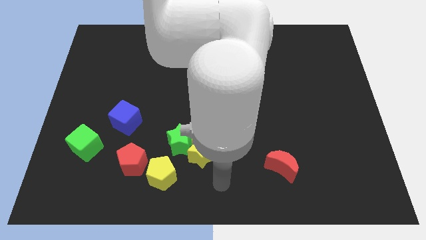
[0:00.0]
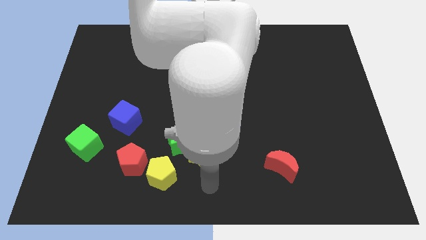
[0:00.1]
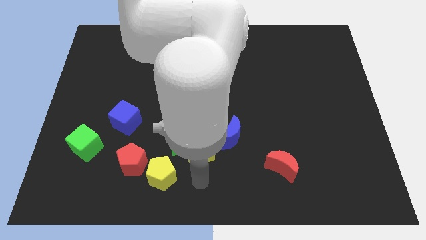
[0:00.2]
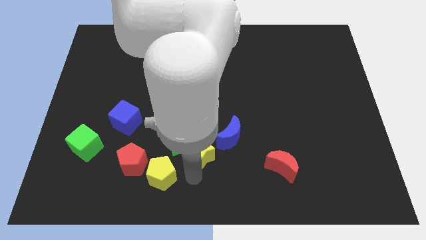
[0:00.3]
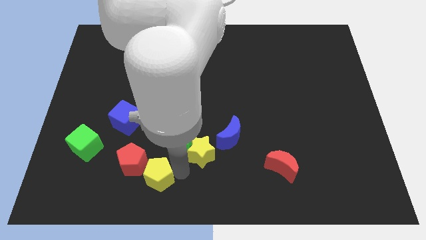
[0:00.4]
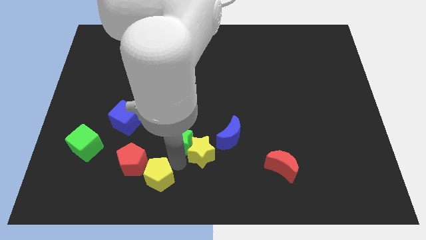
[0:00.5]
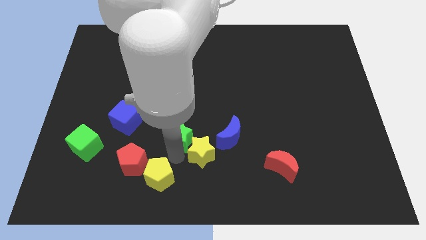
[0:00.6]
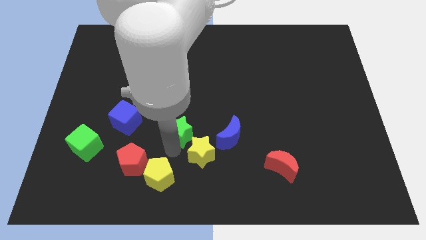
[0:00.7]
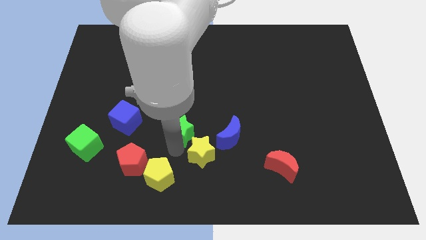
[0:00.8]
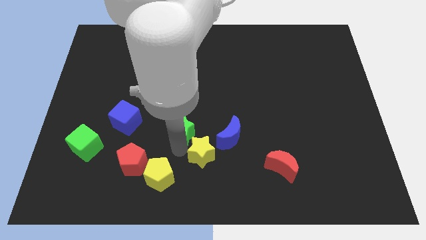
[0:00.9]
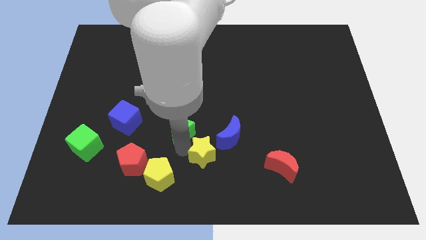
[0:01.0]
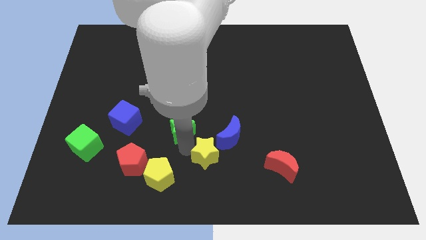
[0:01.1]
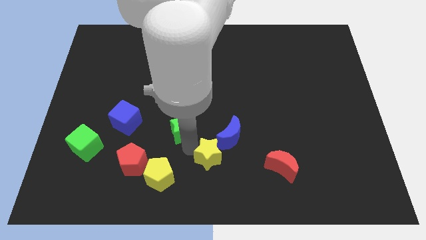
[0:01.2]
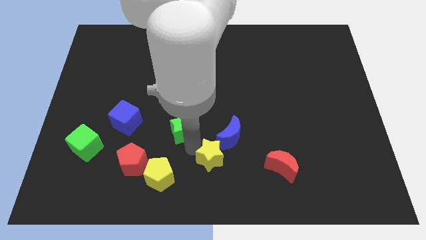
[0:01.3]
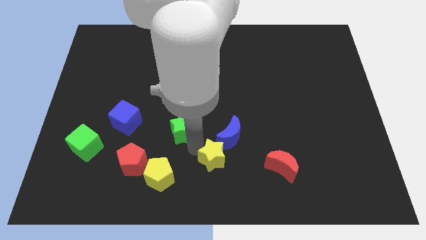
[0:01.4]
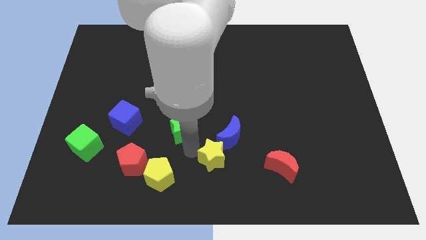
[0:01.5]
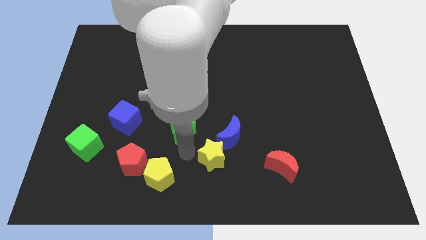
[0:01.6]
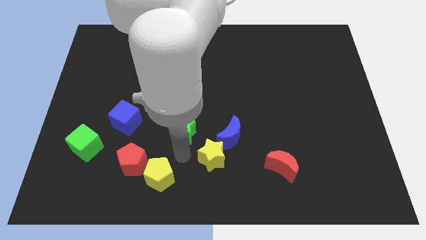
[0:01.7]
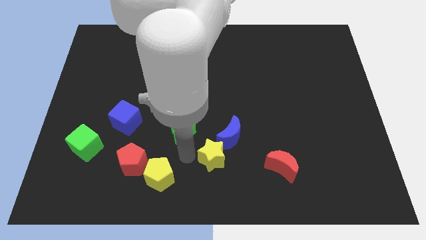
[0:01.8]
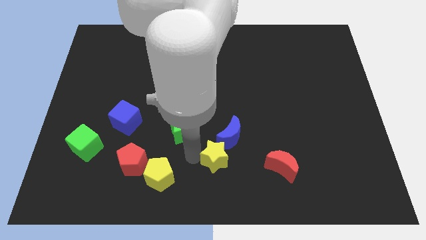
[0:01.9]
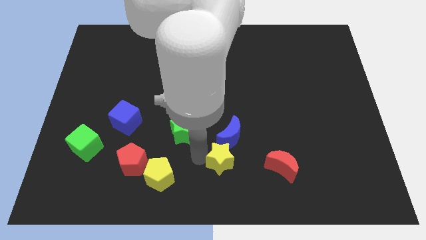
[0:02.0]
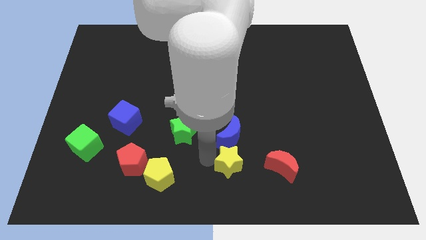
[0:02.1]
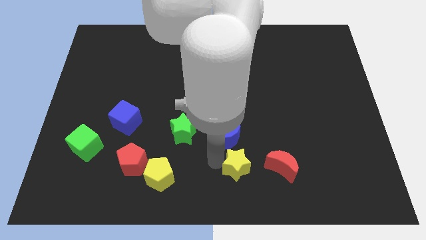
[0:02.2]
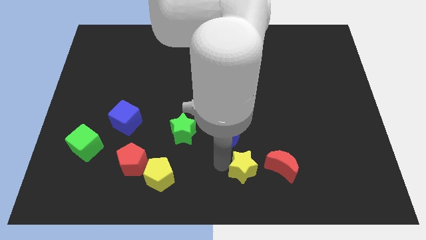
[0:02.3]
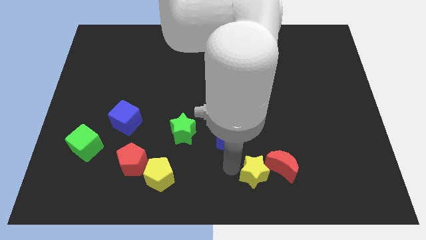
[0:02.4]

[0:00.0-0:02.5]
move the yellow star close to the red moon

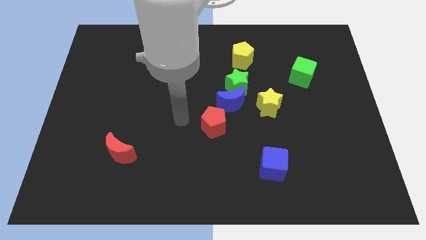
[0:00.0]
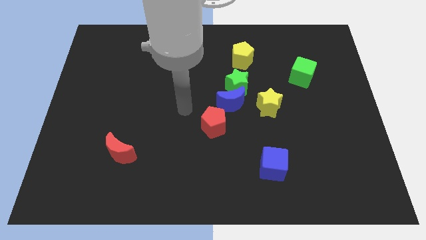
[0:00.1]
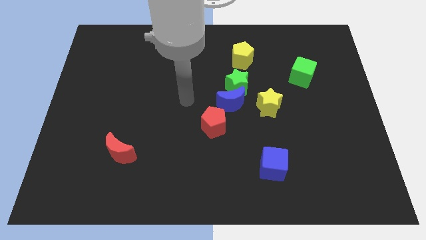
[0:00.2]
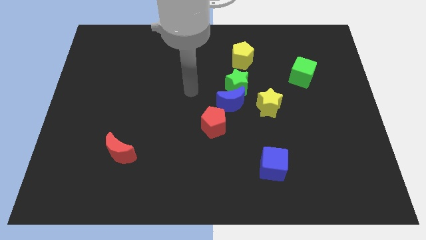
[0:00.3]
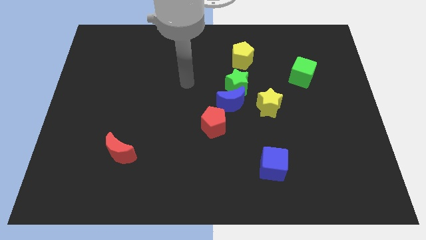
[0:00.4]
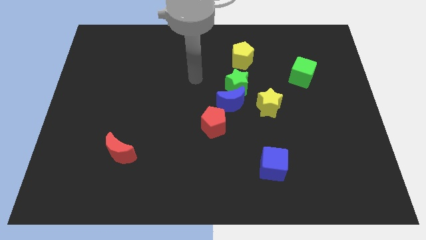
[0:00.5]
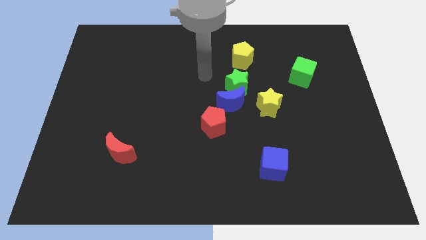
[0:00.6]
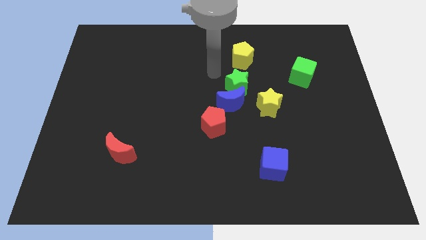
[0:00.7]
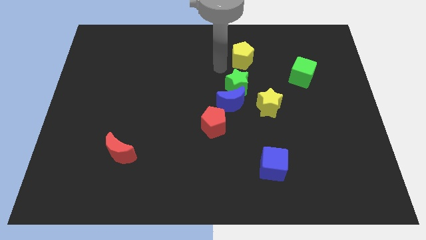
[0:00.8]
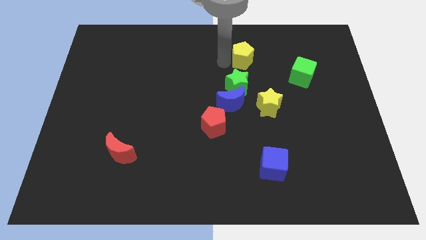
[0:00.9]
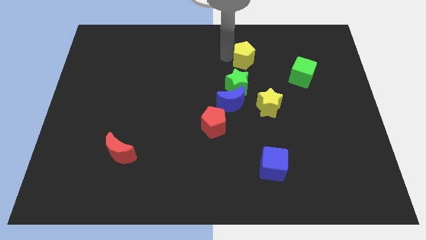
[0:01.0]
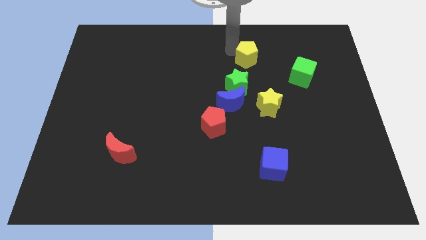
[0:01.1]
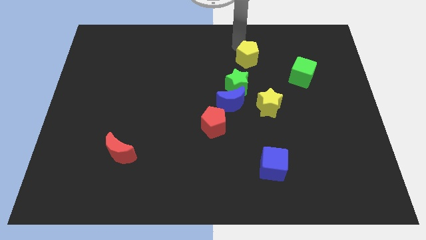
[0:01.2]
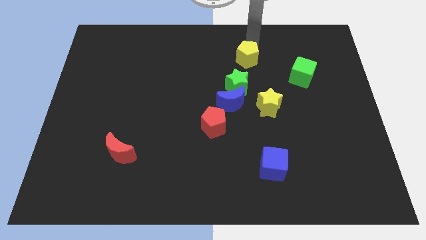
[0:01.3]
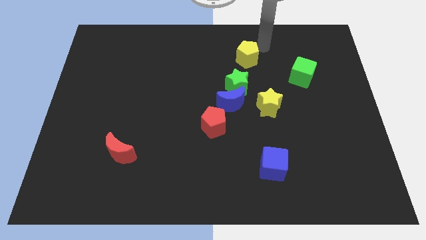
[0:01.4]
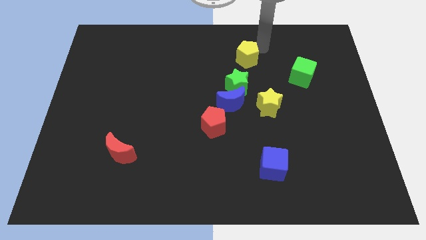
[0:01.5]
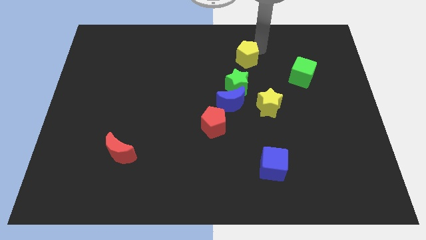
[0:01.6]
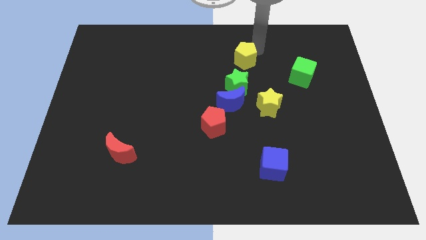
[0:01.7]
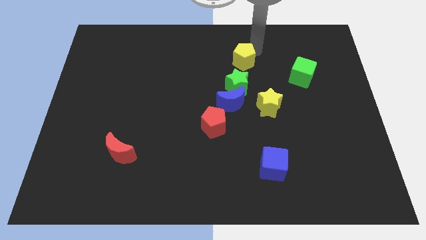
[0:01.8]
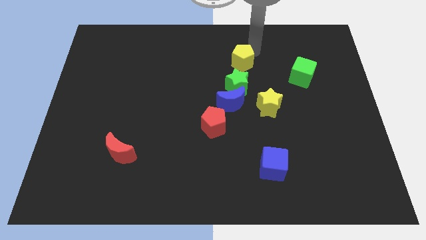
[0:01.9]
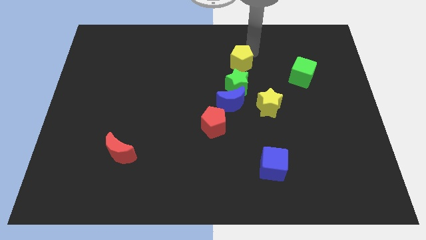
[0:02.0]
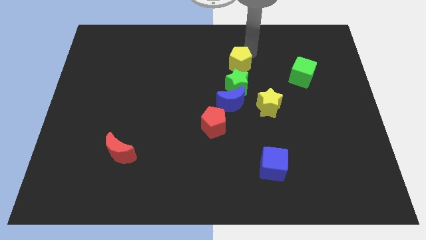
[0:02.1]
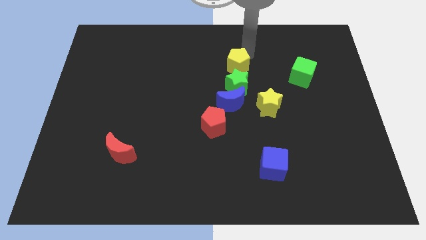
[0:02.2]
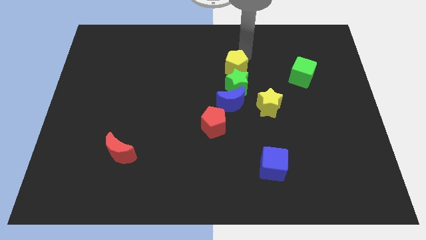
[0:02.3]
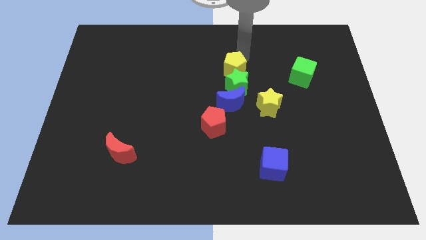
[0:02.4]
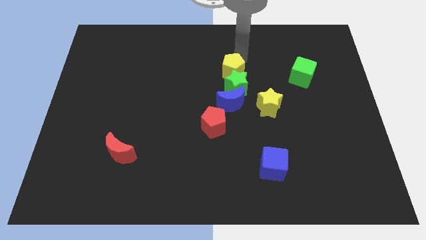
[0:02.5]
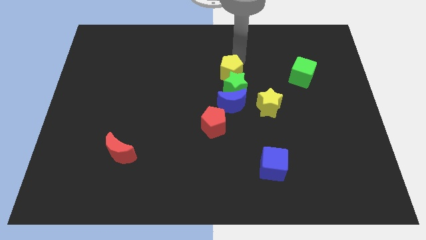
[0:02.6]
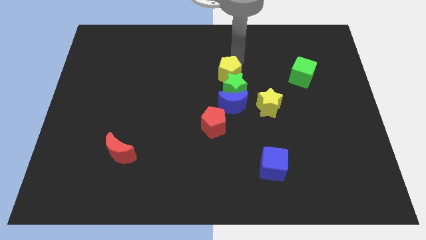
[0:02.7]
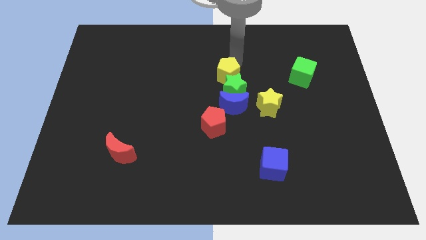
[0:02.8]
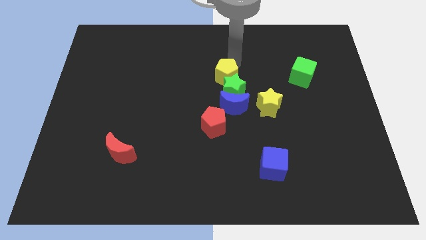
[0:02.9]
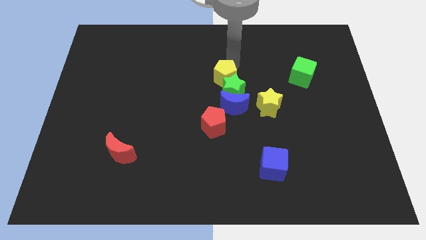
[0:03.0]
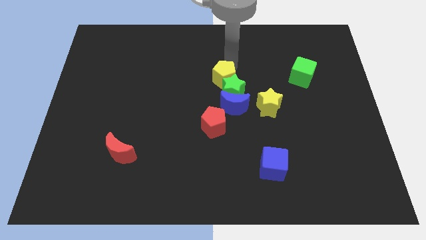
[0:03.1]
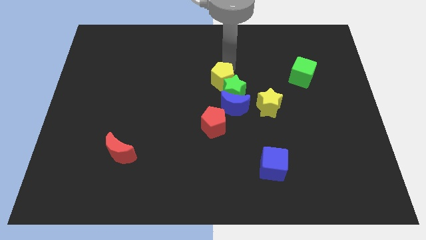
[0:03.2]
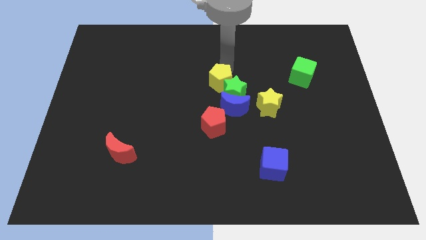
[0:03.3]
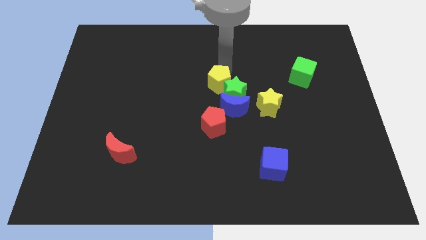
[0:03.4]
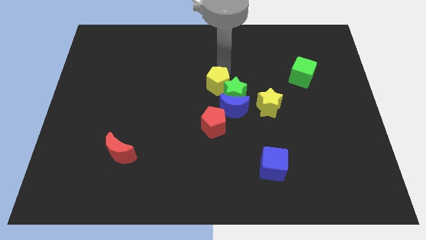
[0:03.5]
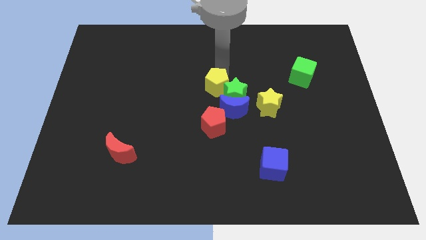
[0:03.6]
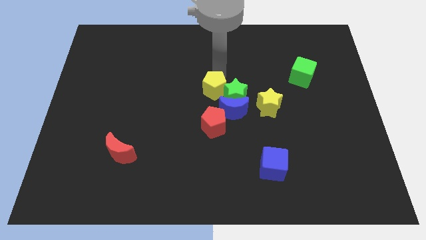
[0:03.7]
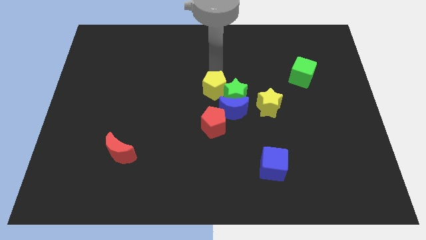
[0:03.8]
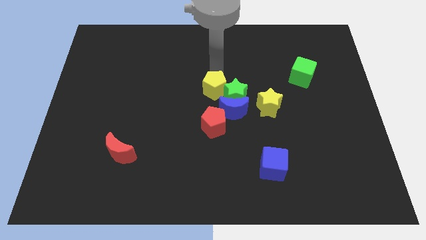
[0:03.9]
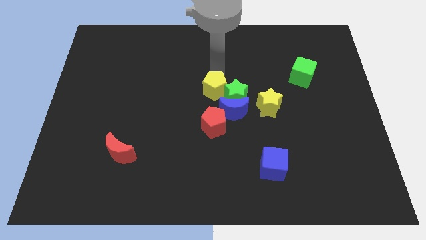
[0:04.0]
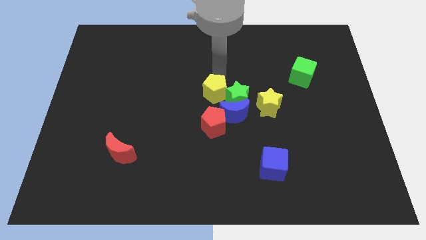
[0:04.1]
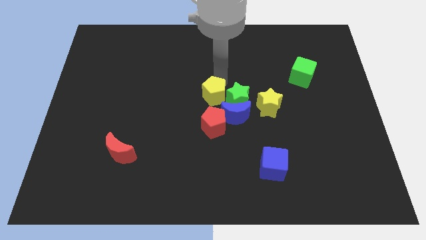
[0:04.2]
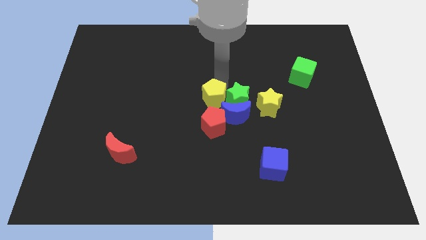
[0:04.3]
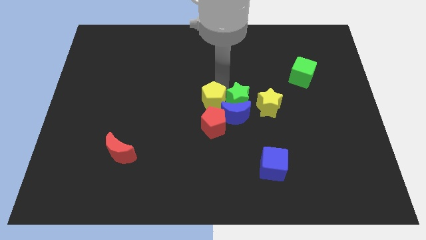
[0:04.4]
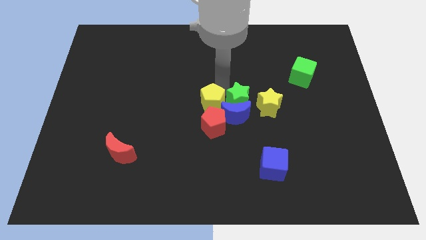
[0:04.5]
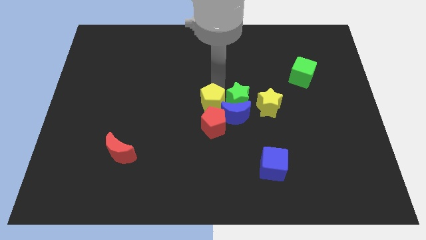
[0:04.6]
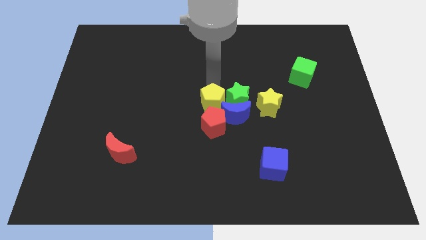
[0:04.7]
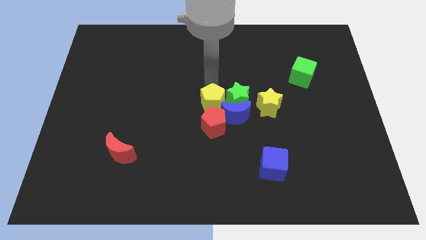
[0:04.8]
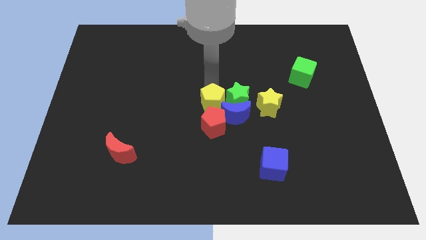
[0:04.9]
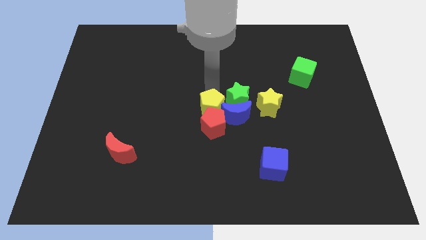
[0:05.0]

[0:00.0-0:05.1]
move the yellow pentagon next to the red pentagon

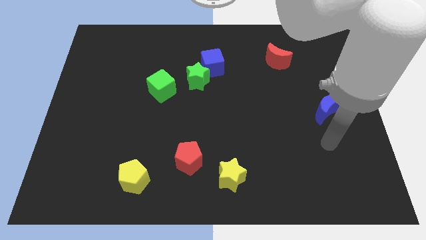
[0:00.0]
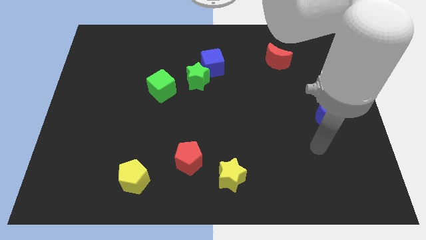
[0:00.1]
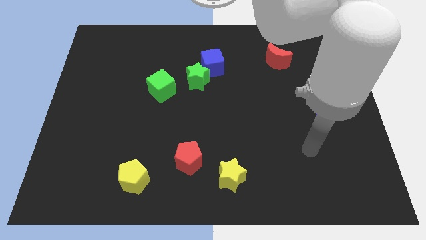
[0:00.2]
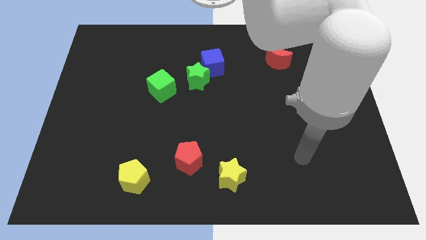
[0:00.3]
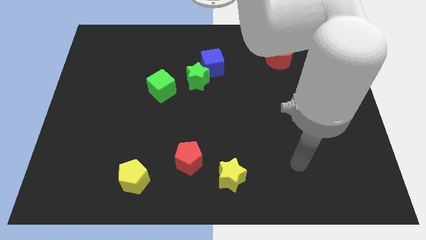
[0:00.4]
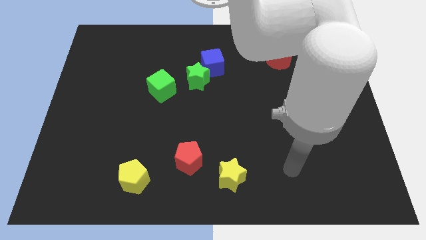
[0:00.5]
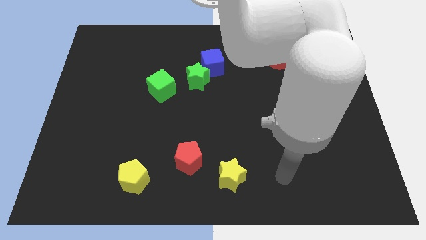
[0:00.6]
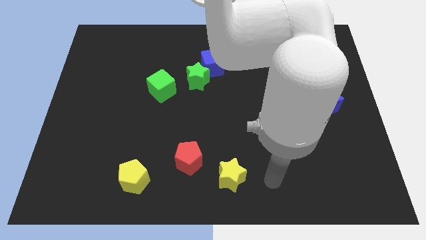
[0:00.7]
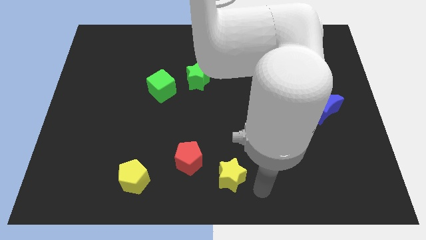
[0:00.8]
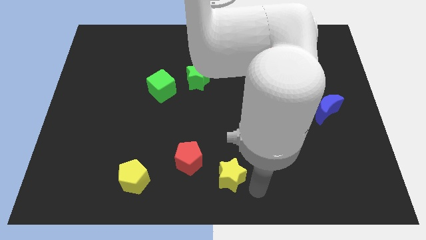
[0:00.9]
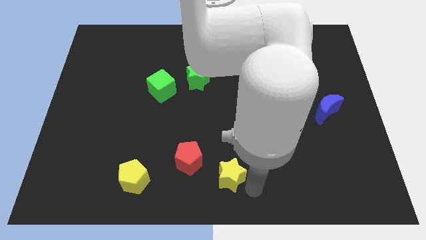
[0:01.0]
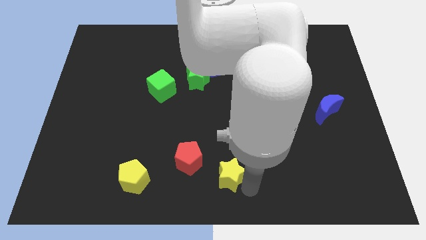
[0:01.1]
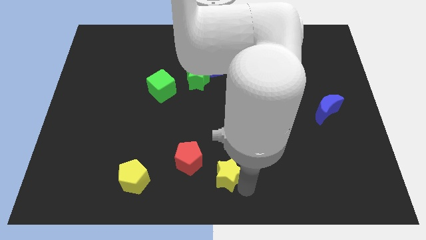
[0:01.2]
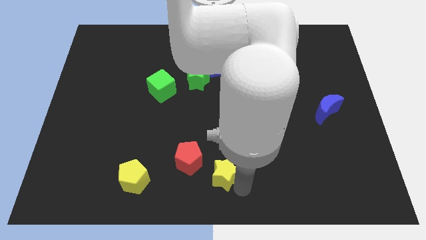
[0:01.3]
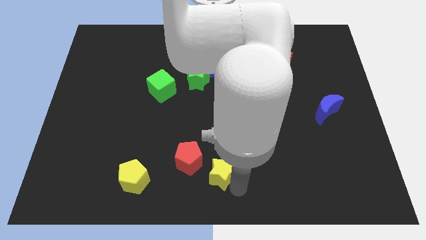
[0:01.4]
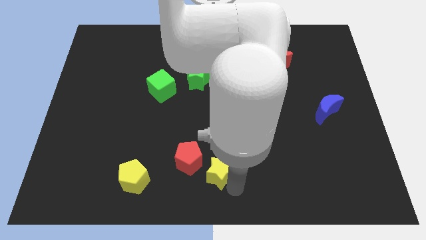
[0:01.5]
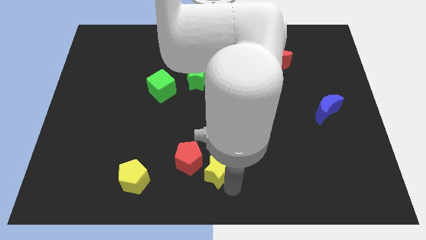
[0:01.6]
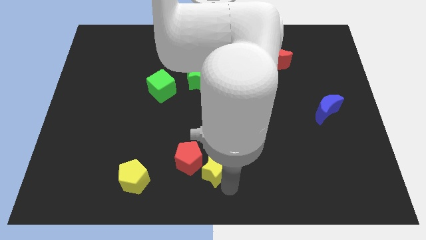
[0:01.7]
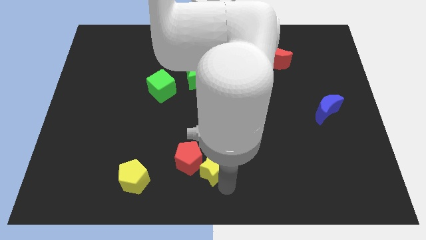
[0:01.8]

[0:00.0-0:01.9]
put the yellow star close to the red pentagon
